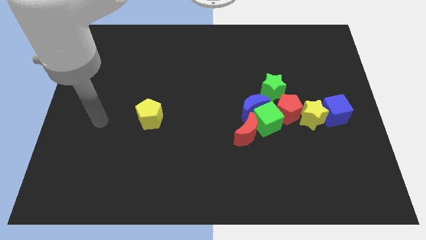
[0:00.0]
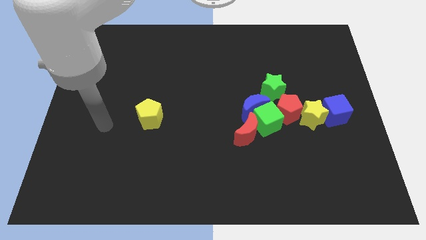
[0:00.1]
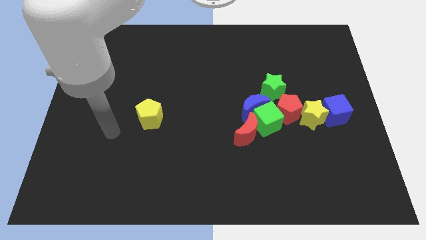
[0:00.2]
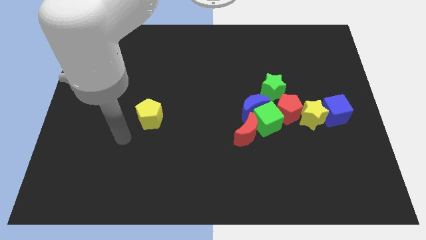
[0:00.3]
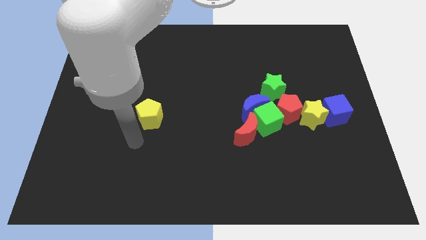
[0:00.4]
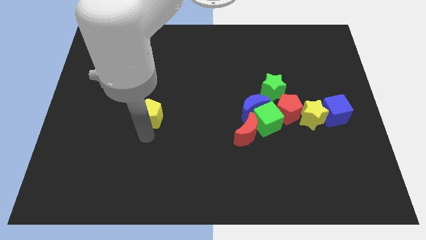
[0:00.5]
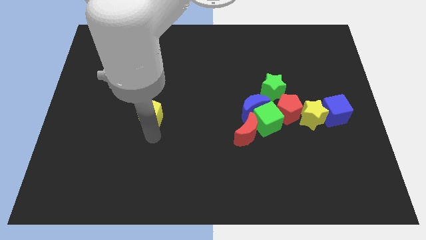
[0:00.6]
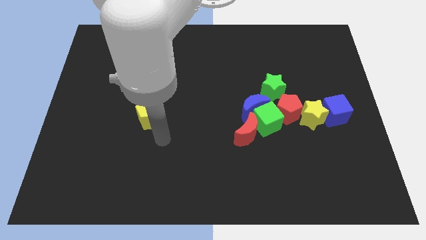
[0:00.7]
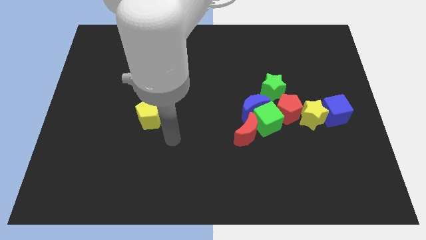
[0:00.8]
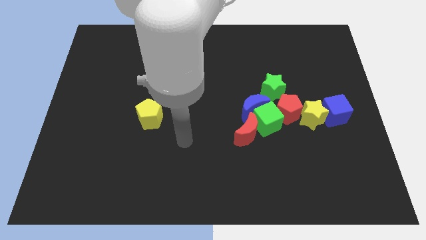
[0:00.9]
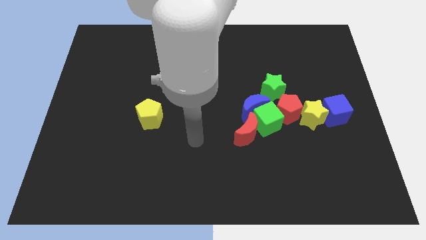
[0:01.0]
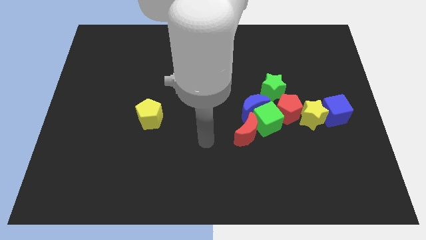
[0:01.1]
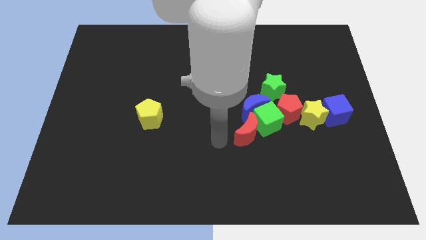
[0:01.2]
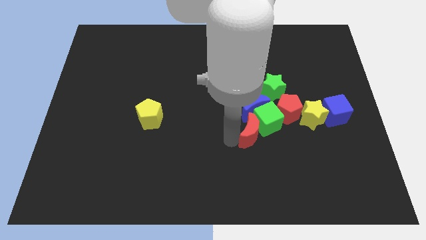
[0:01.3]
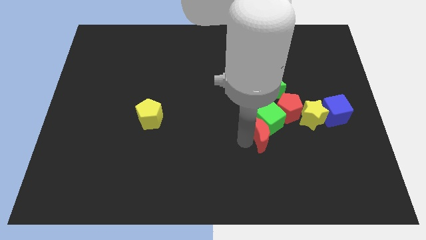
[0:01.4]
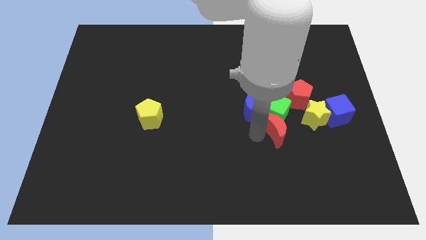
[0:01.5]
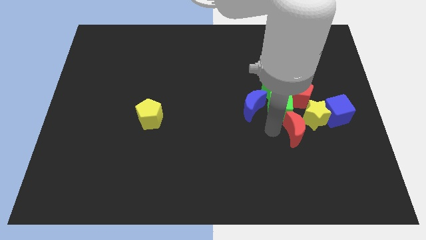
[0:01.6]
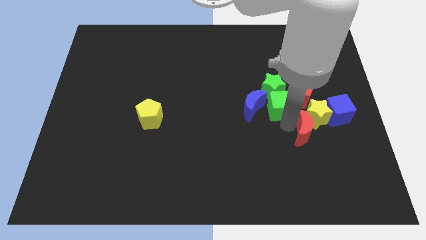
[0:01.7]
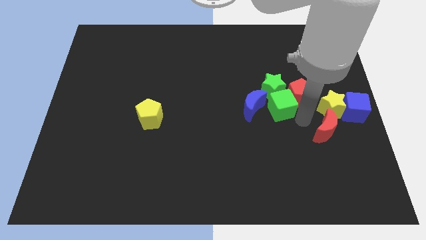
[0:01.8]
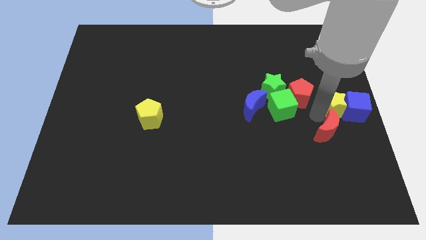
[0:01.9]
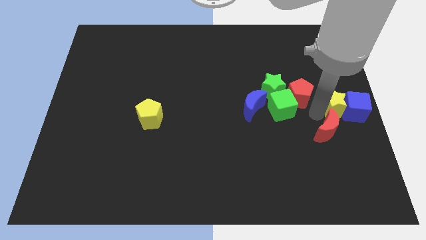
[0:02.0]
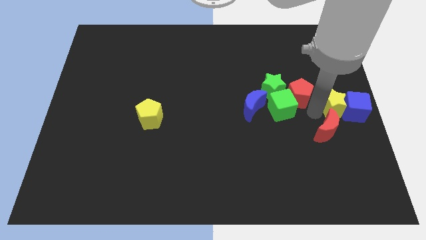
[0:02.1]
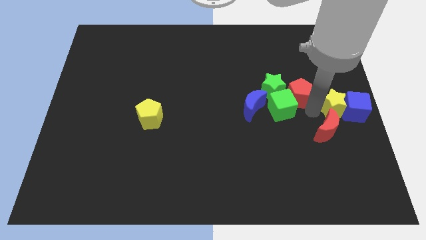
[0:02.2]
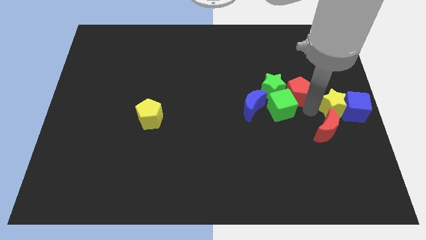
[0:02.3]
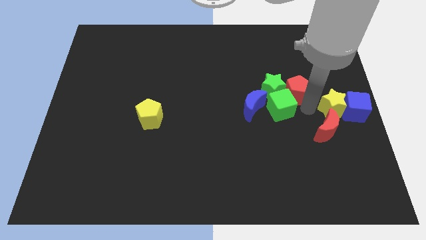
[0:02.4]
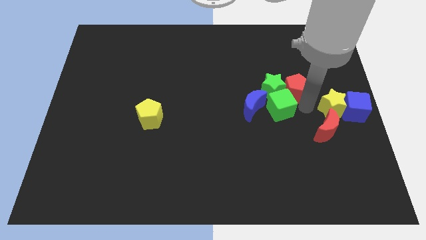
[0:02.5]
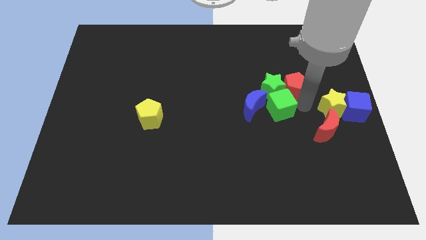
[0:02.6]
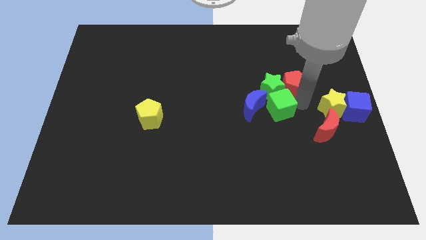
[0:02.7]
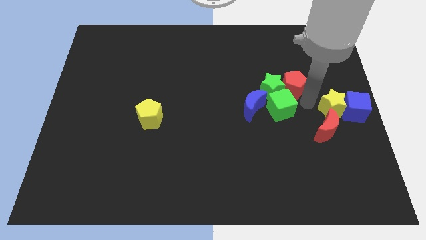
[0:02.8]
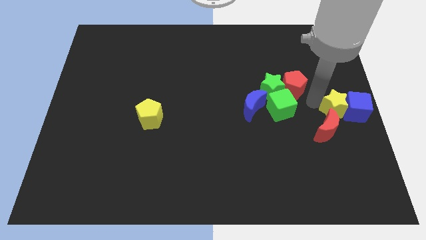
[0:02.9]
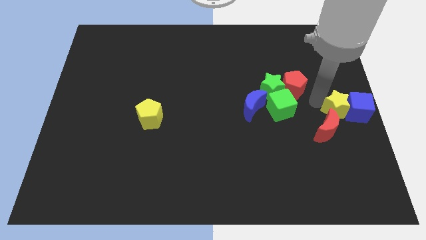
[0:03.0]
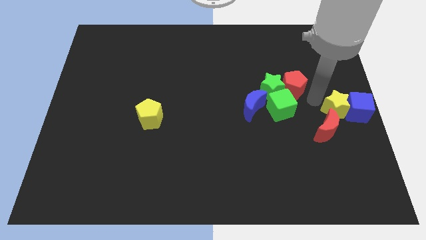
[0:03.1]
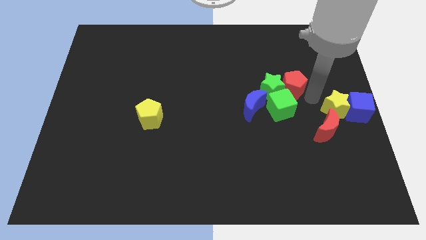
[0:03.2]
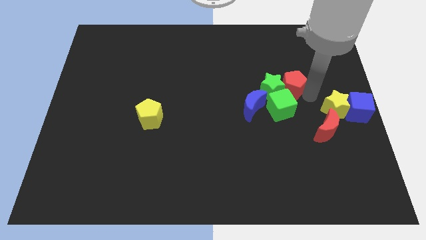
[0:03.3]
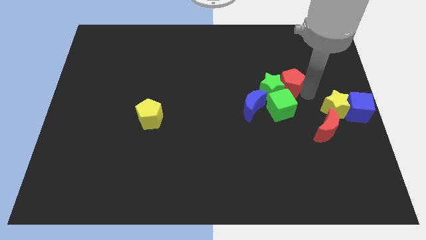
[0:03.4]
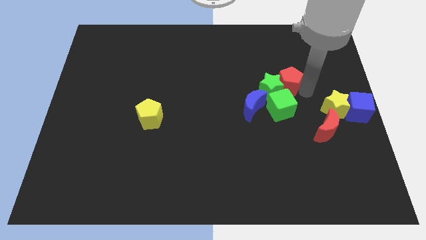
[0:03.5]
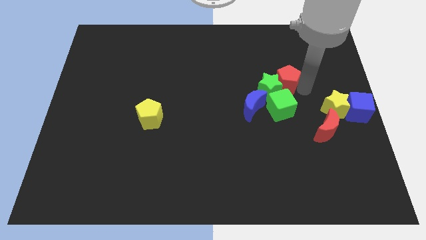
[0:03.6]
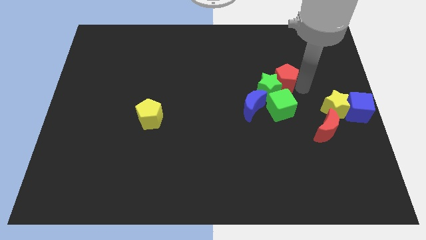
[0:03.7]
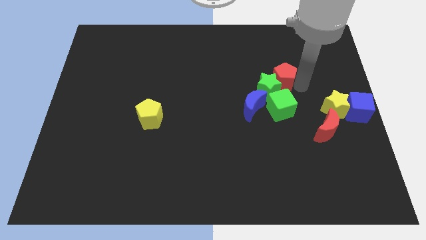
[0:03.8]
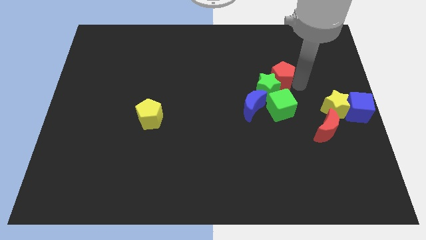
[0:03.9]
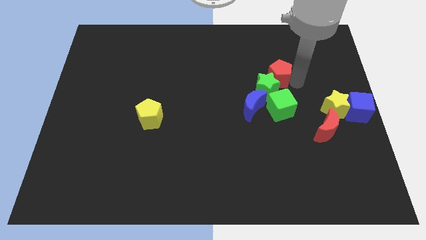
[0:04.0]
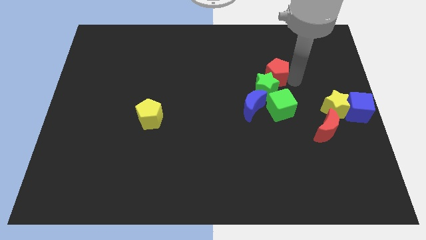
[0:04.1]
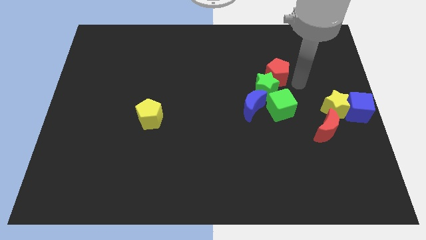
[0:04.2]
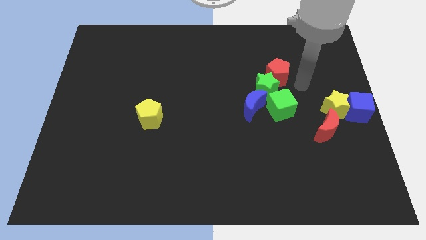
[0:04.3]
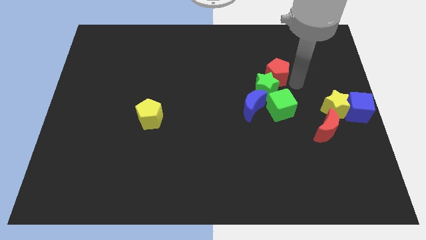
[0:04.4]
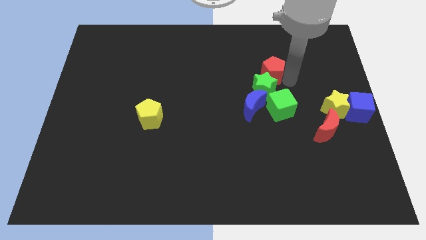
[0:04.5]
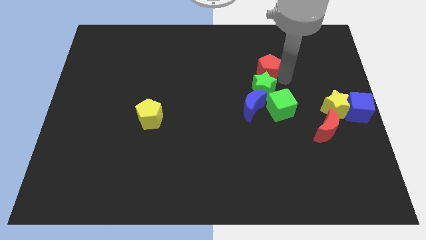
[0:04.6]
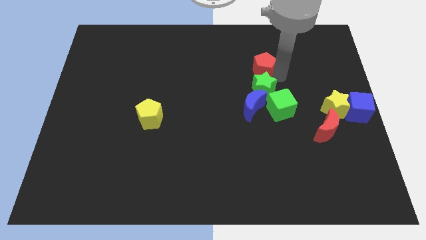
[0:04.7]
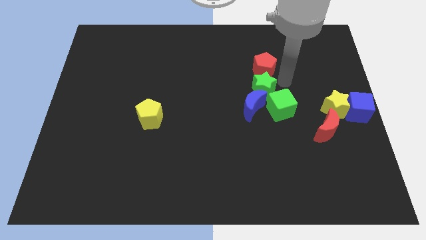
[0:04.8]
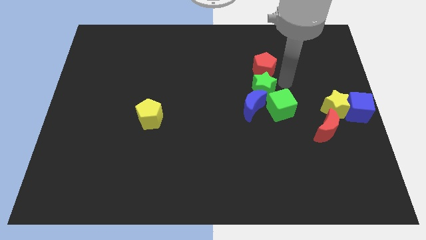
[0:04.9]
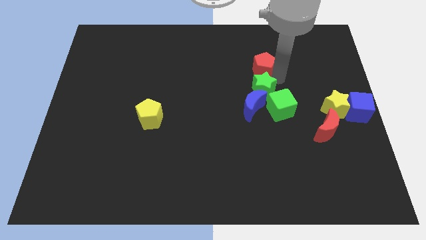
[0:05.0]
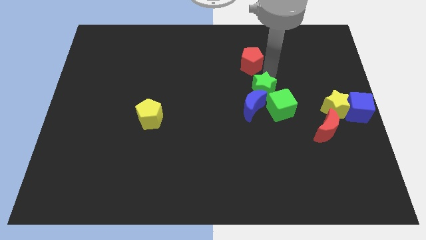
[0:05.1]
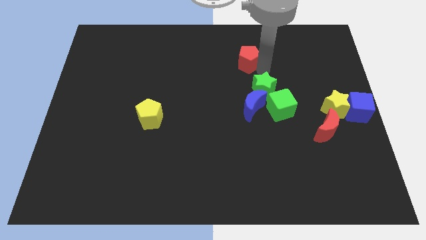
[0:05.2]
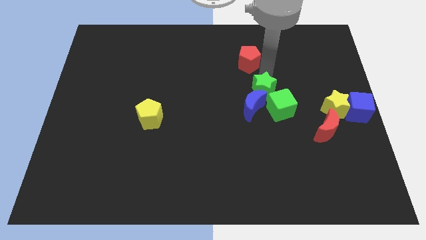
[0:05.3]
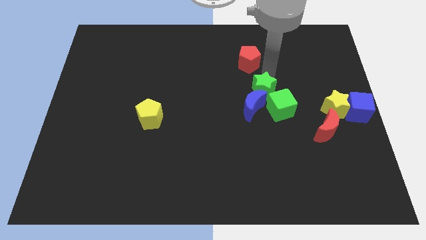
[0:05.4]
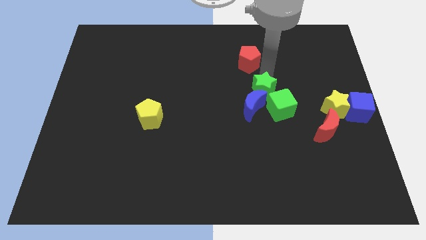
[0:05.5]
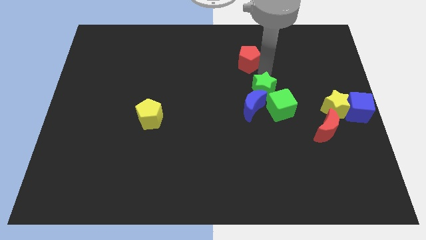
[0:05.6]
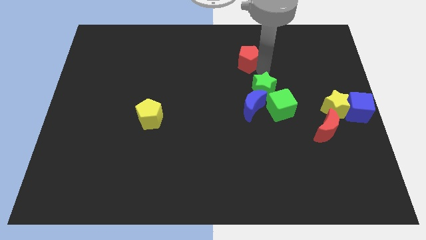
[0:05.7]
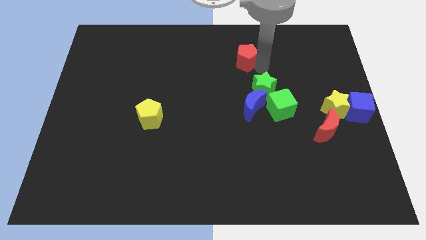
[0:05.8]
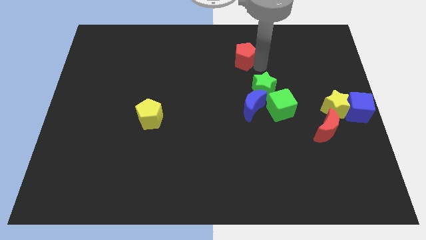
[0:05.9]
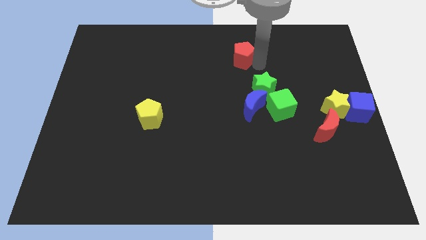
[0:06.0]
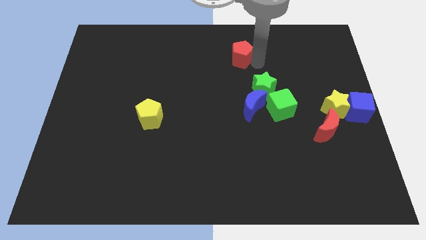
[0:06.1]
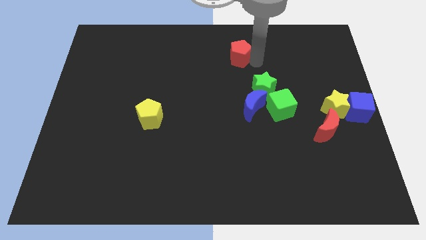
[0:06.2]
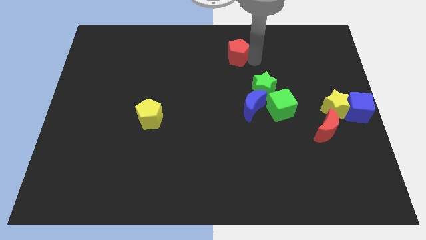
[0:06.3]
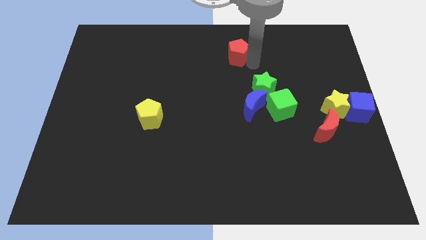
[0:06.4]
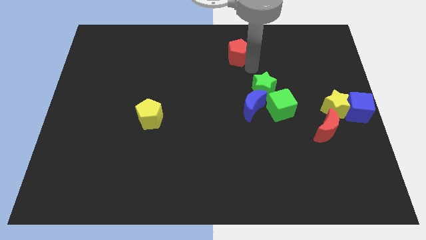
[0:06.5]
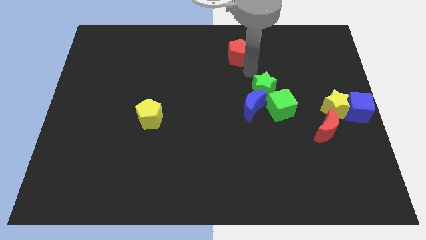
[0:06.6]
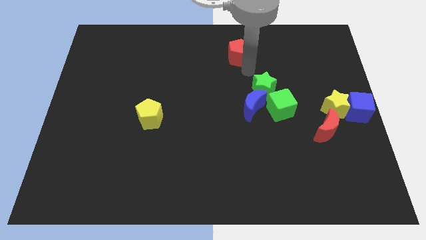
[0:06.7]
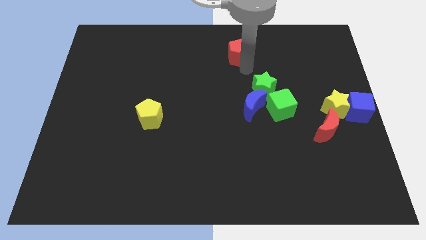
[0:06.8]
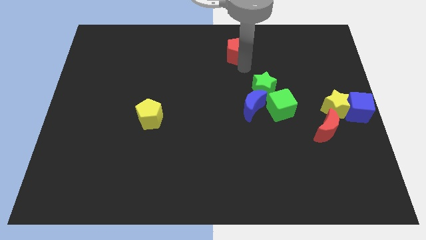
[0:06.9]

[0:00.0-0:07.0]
move the red pentagon to the top side
